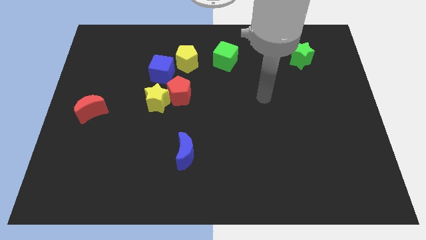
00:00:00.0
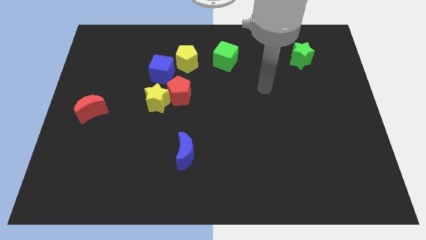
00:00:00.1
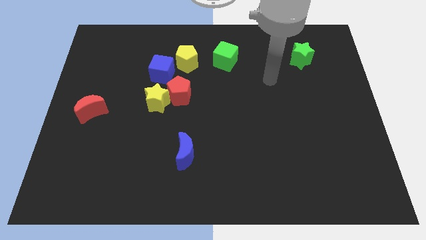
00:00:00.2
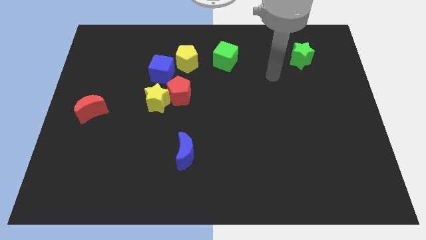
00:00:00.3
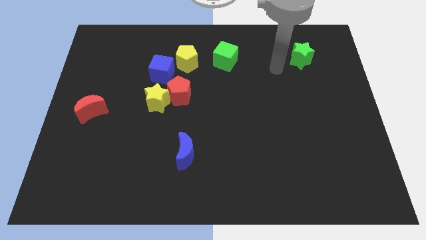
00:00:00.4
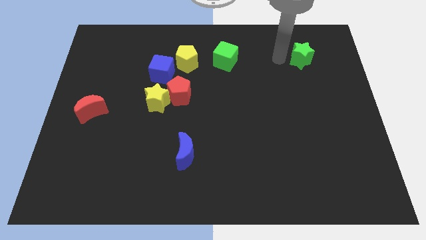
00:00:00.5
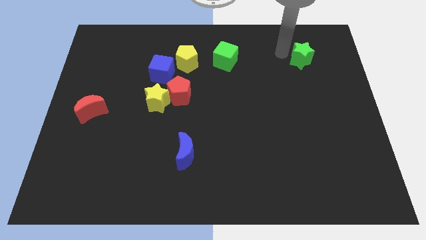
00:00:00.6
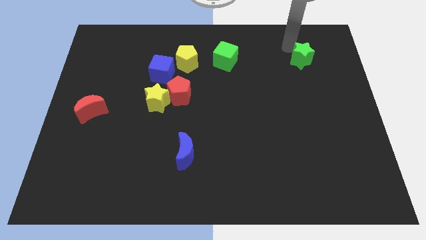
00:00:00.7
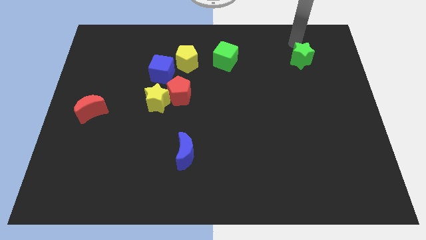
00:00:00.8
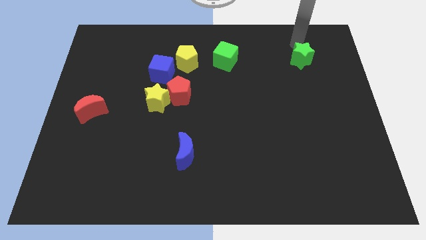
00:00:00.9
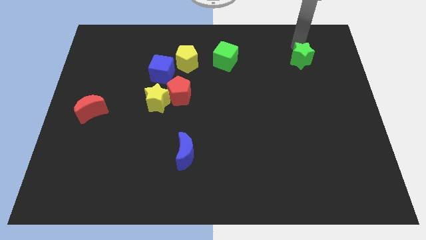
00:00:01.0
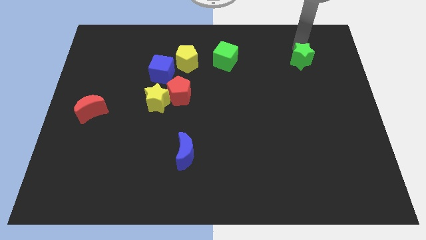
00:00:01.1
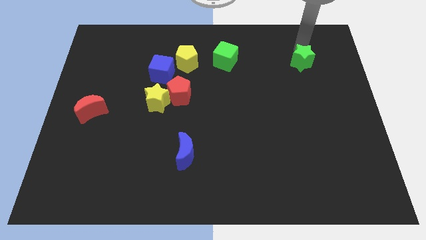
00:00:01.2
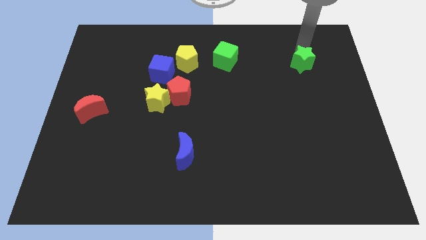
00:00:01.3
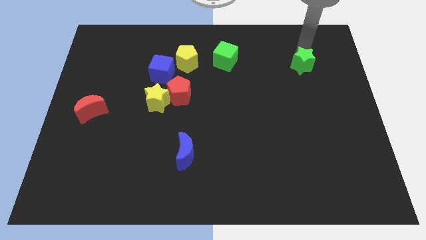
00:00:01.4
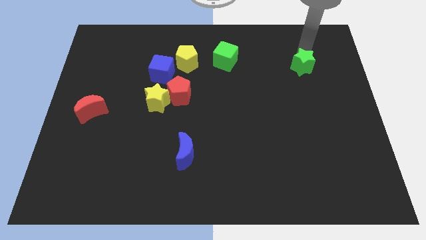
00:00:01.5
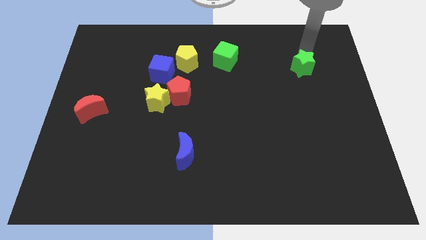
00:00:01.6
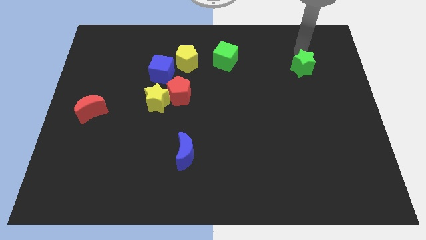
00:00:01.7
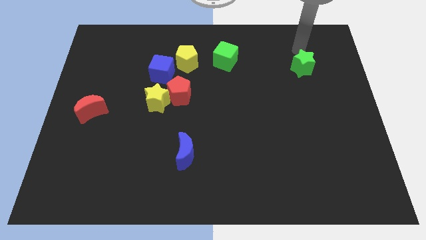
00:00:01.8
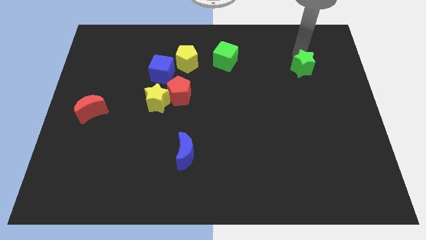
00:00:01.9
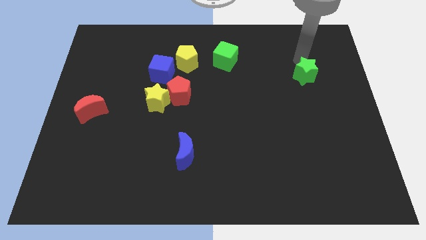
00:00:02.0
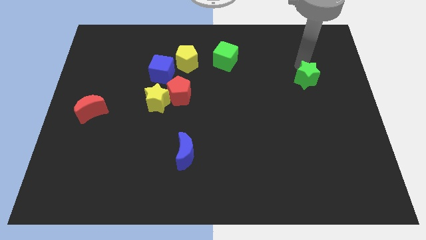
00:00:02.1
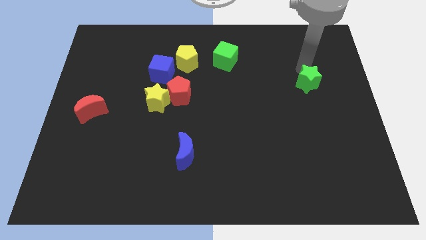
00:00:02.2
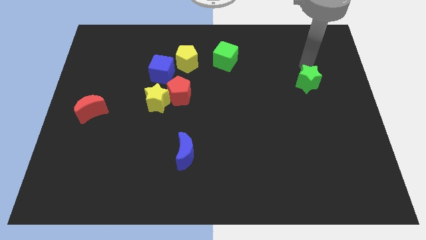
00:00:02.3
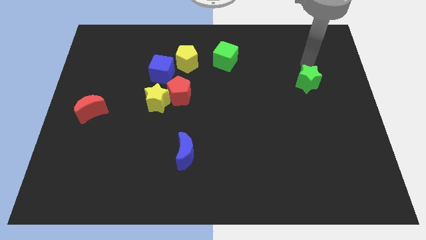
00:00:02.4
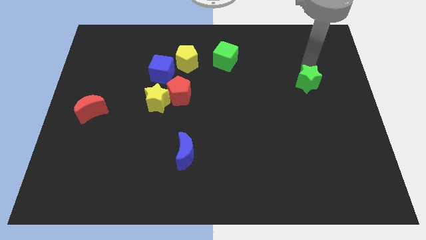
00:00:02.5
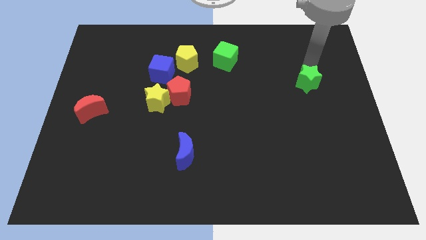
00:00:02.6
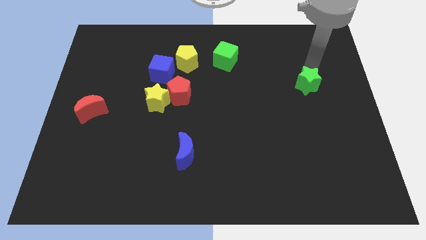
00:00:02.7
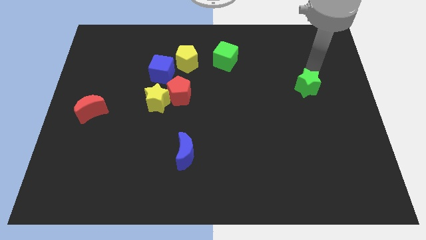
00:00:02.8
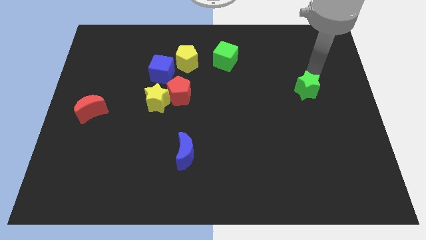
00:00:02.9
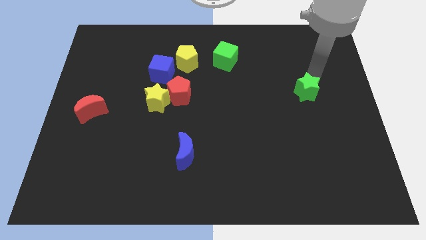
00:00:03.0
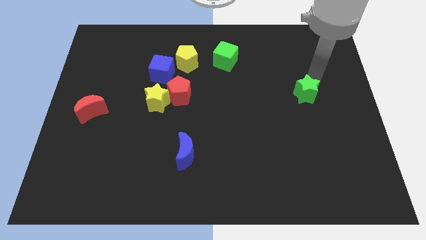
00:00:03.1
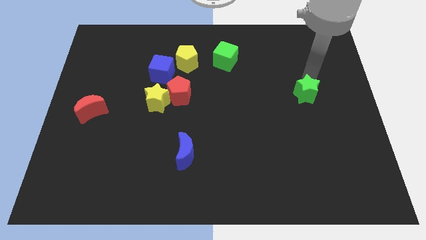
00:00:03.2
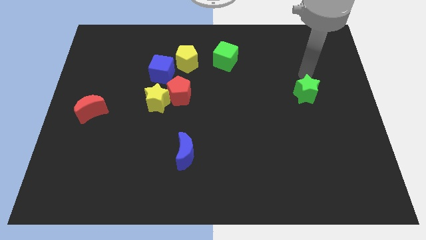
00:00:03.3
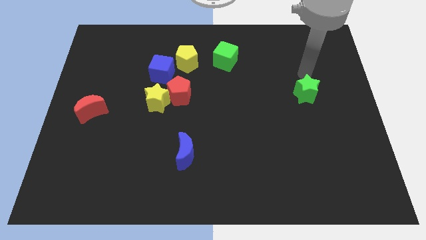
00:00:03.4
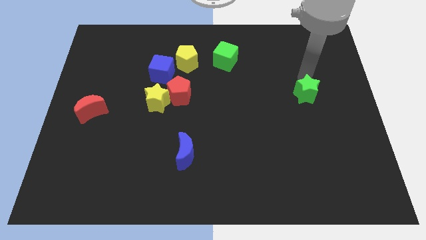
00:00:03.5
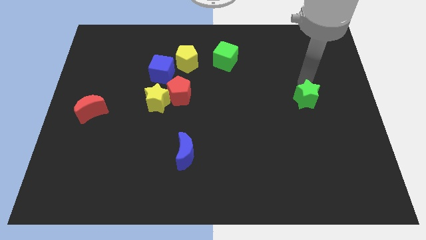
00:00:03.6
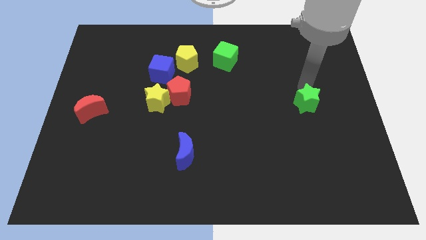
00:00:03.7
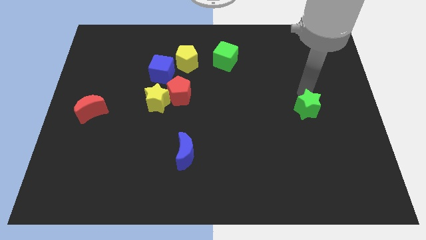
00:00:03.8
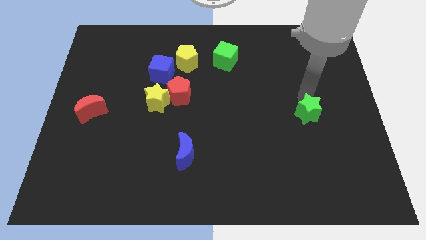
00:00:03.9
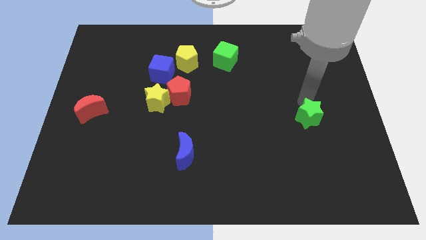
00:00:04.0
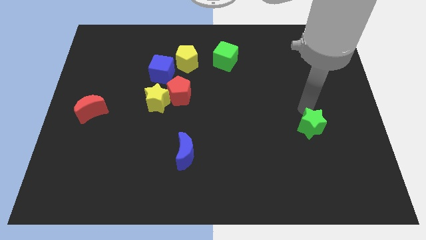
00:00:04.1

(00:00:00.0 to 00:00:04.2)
push the green star down

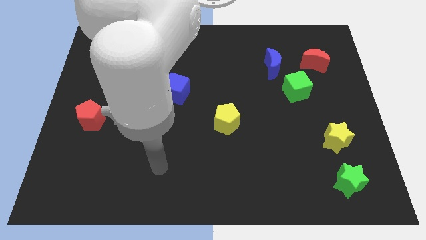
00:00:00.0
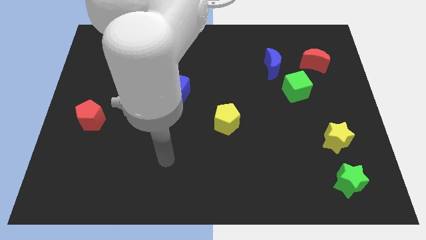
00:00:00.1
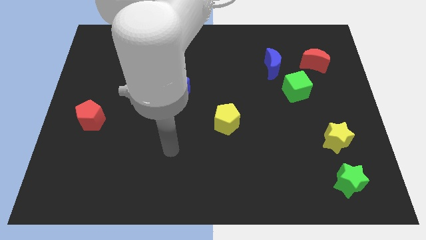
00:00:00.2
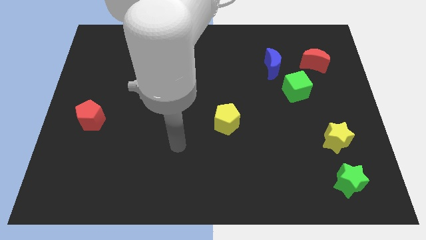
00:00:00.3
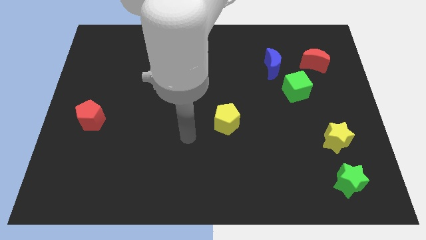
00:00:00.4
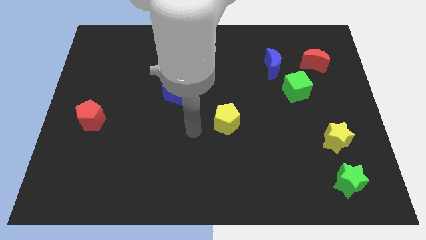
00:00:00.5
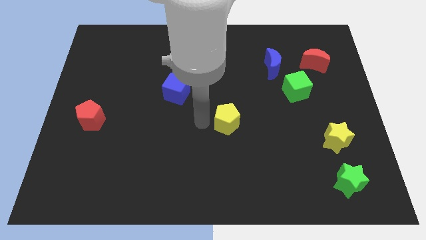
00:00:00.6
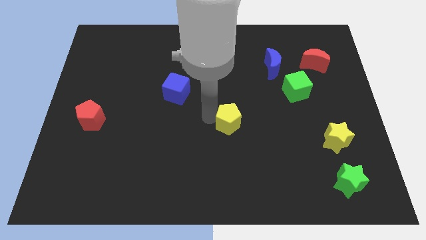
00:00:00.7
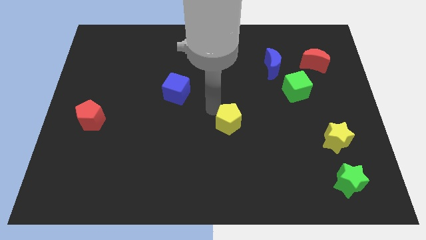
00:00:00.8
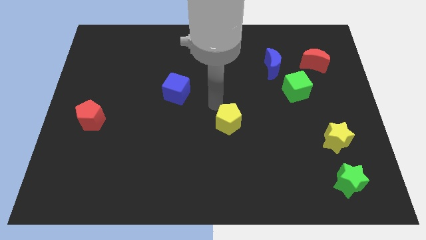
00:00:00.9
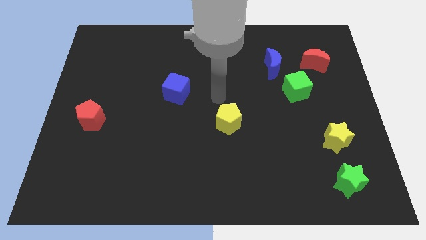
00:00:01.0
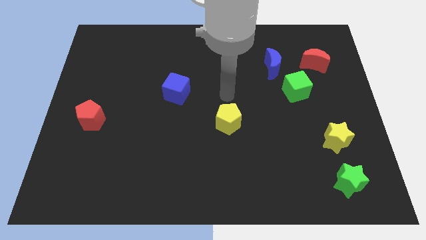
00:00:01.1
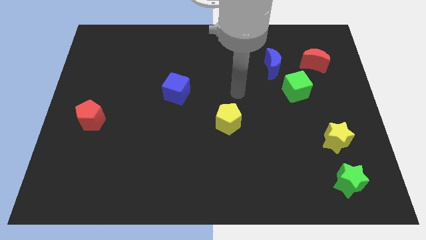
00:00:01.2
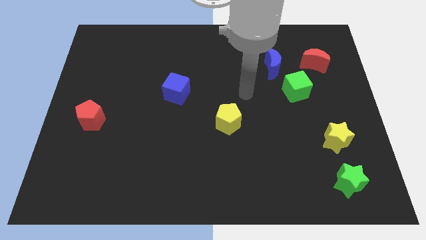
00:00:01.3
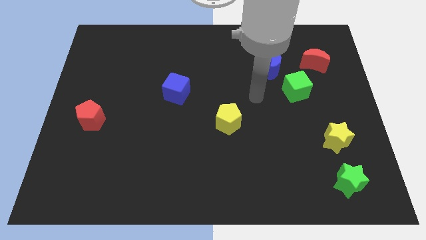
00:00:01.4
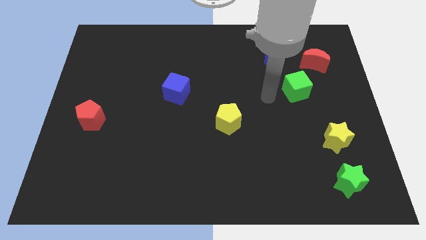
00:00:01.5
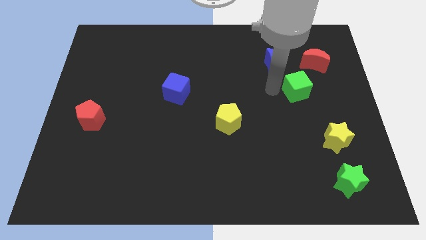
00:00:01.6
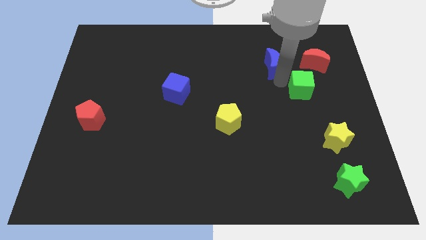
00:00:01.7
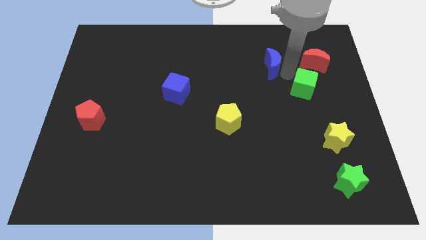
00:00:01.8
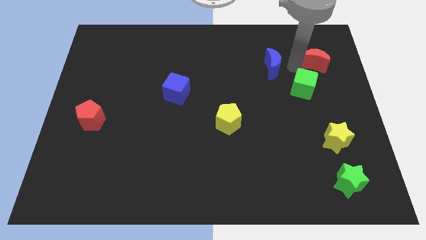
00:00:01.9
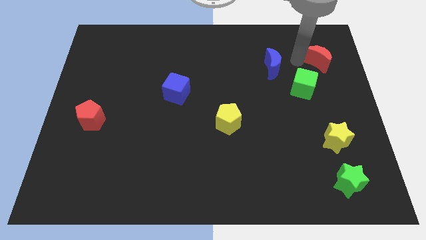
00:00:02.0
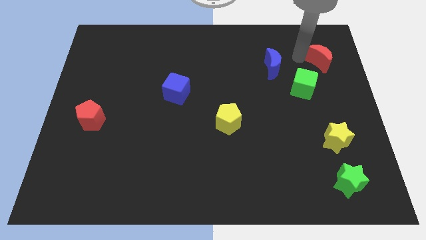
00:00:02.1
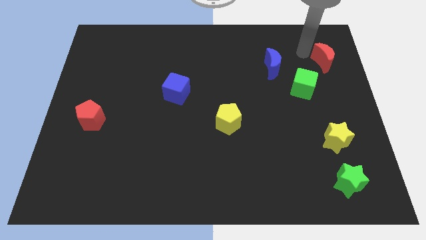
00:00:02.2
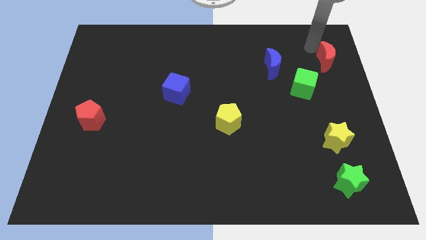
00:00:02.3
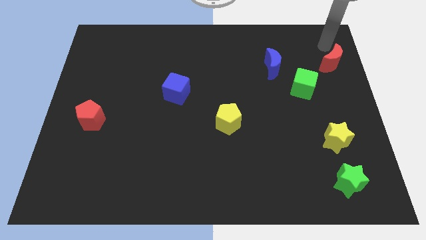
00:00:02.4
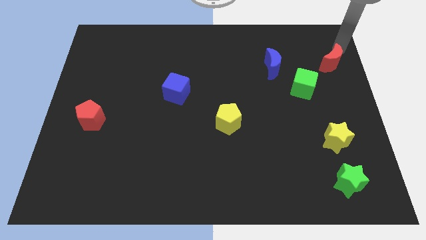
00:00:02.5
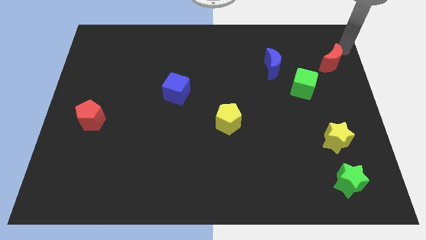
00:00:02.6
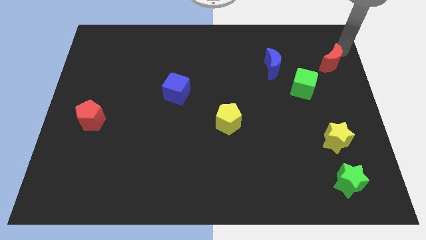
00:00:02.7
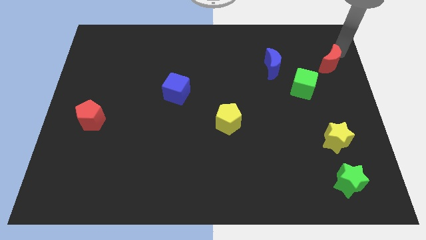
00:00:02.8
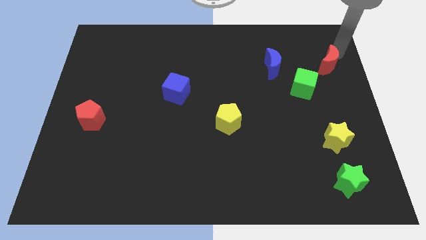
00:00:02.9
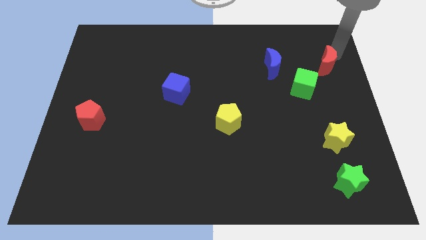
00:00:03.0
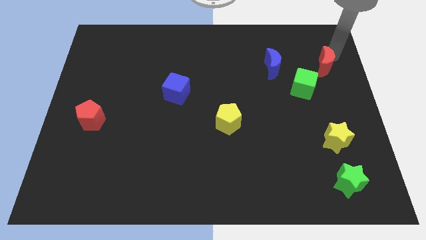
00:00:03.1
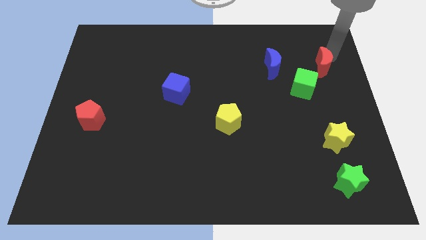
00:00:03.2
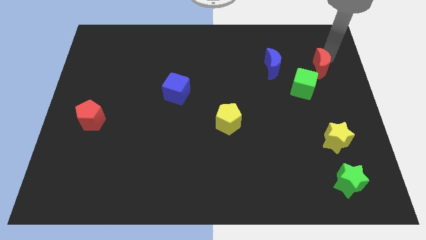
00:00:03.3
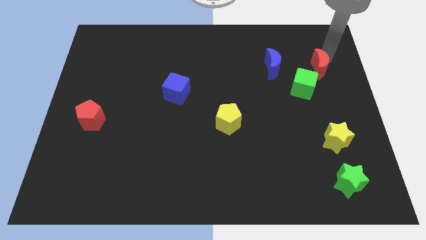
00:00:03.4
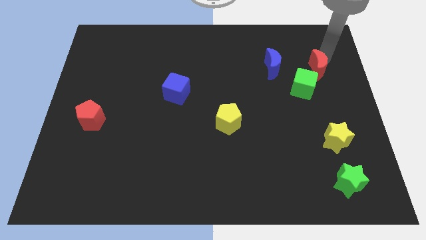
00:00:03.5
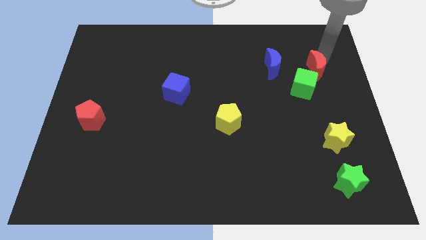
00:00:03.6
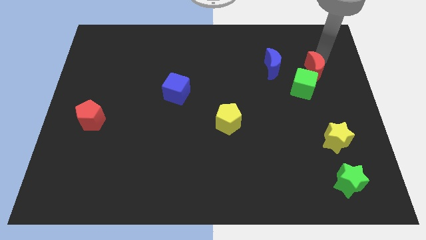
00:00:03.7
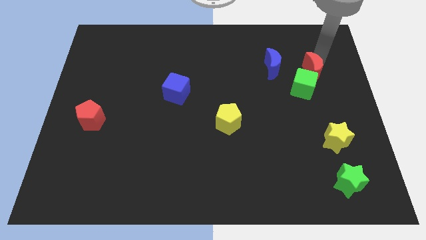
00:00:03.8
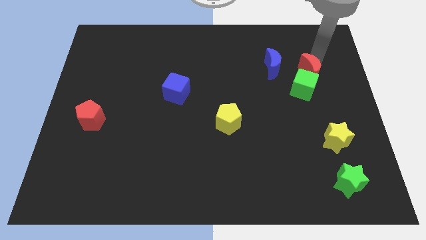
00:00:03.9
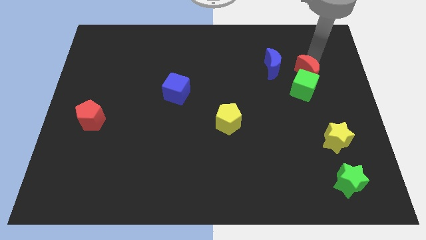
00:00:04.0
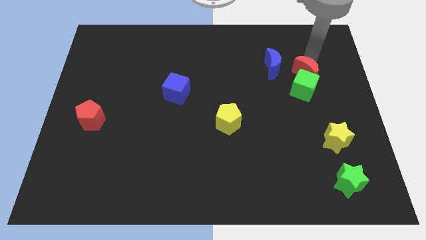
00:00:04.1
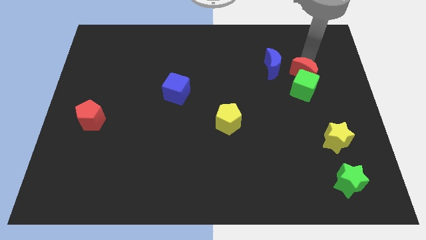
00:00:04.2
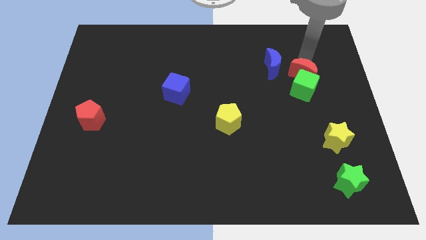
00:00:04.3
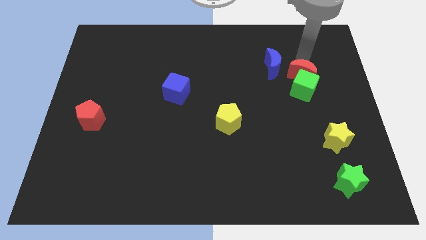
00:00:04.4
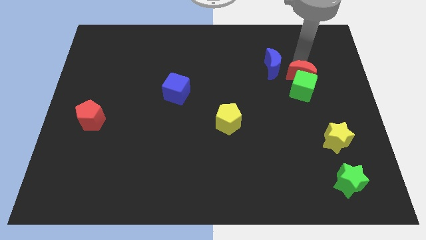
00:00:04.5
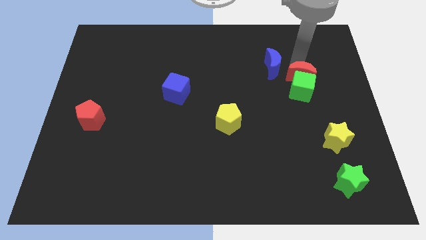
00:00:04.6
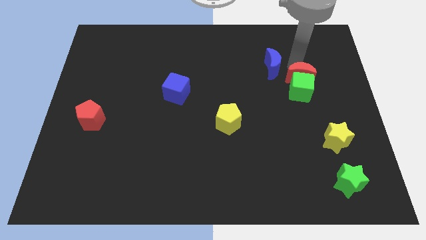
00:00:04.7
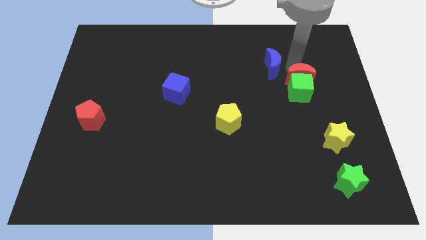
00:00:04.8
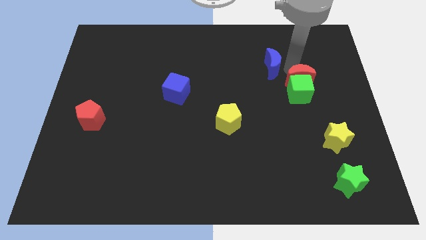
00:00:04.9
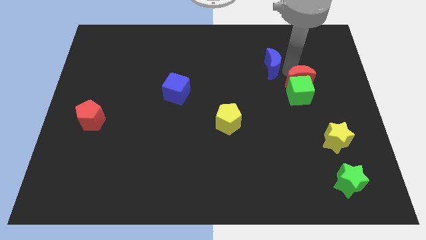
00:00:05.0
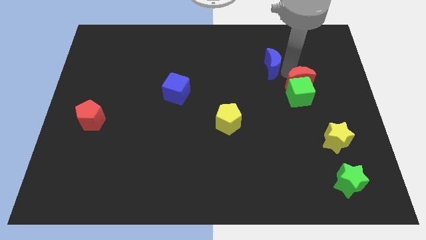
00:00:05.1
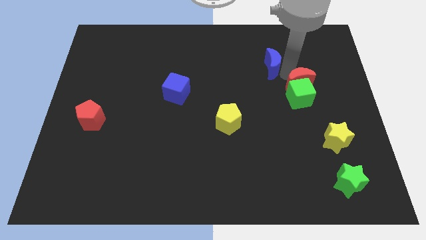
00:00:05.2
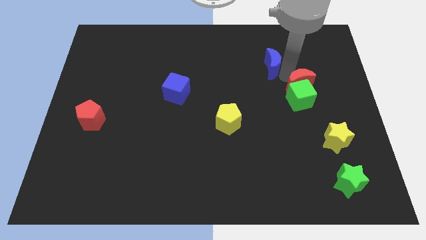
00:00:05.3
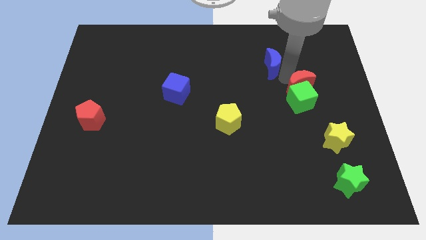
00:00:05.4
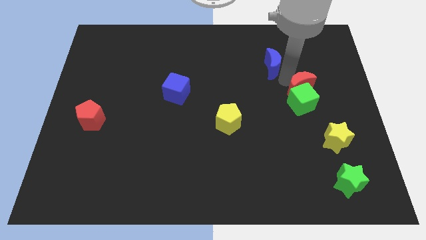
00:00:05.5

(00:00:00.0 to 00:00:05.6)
push the red moon downwards slightly
